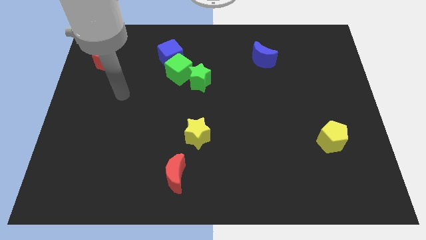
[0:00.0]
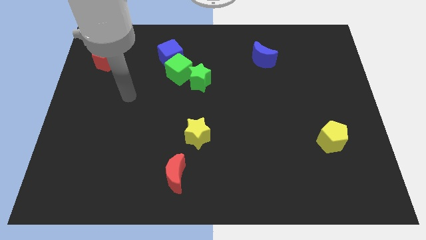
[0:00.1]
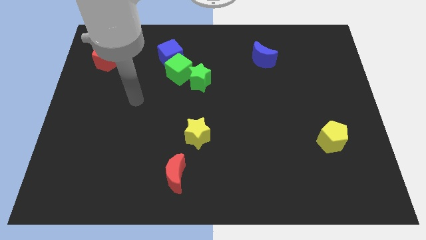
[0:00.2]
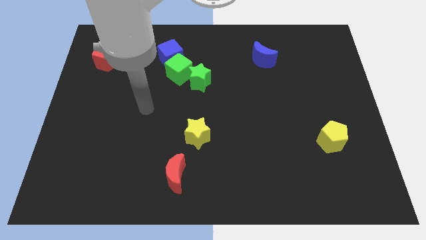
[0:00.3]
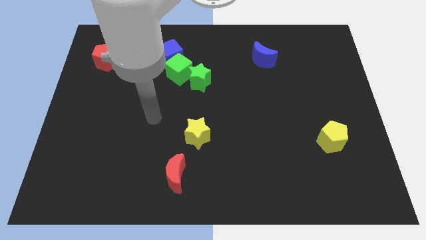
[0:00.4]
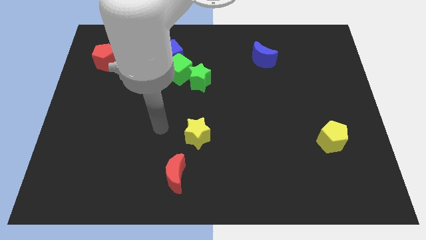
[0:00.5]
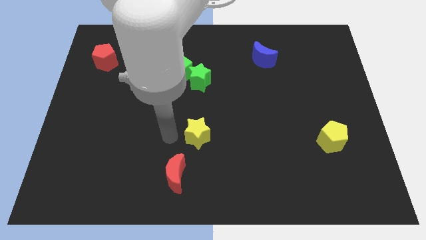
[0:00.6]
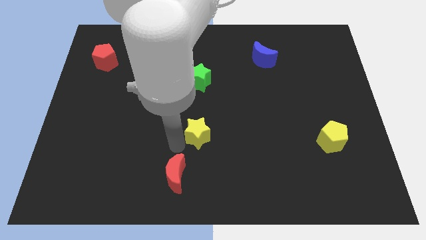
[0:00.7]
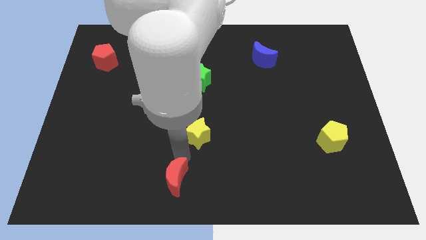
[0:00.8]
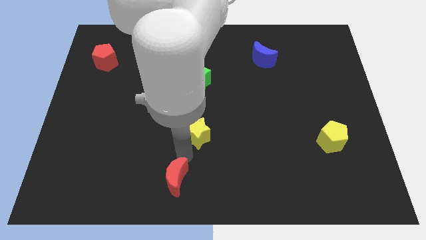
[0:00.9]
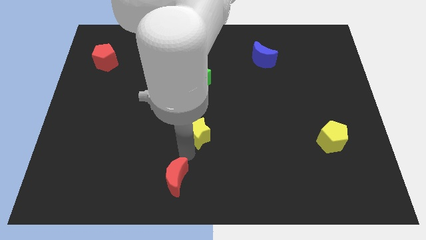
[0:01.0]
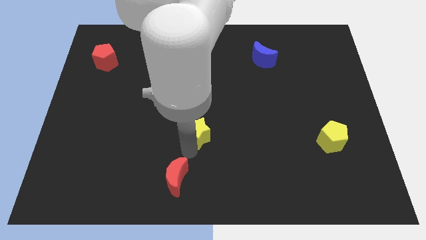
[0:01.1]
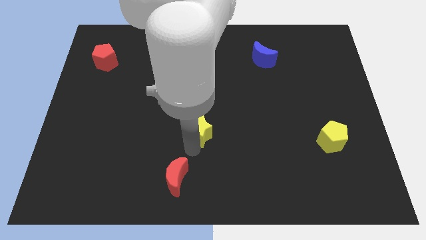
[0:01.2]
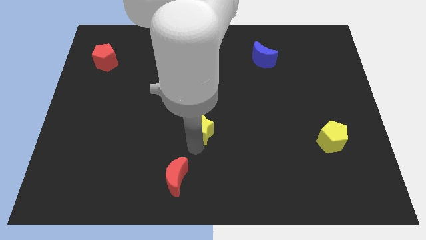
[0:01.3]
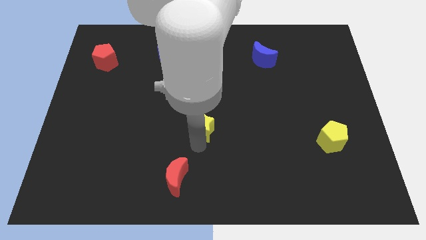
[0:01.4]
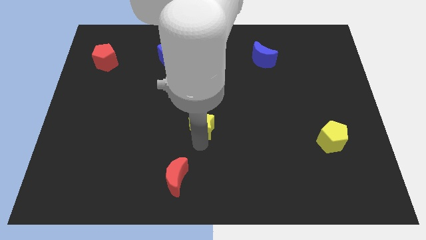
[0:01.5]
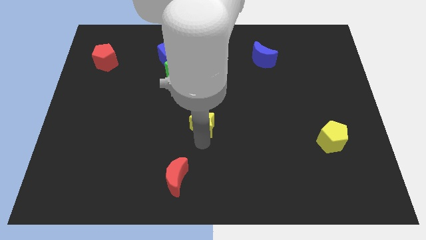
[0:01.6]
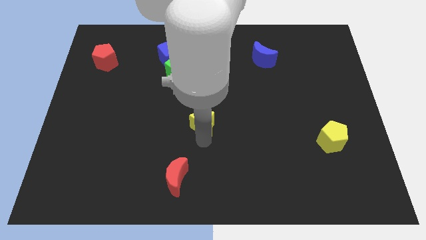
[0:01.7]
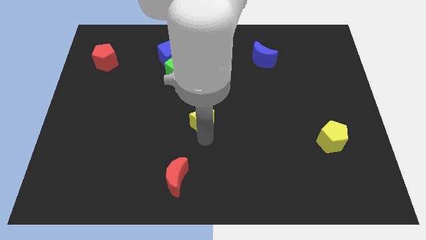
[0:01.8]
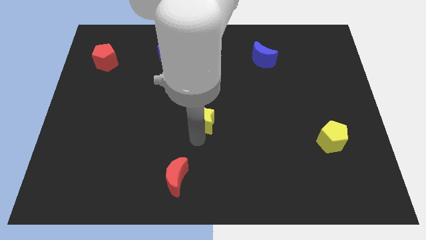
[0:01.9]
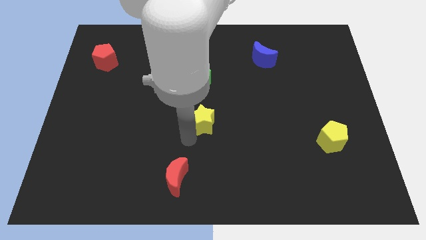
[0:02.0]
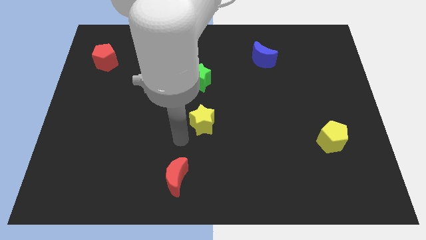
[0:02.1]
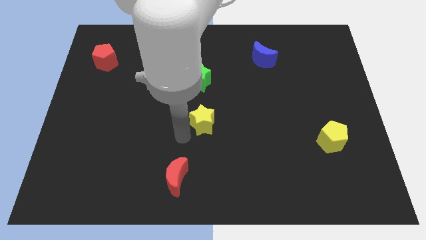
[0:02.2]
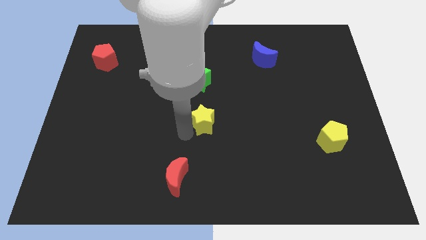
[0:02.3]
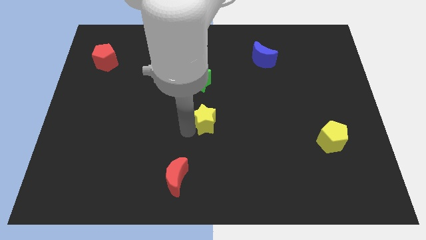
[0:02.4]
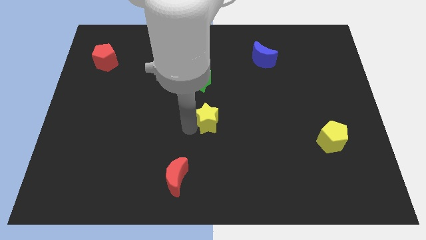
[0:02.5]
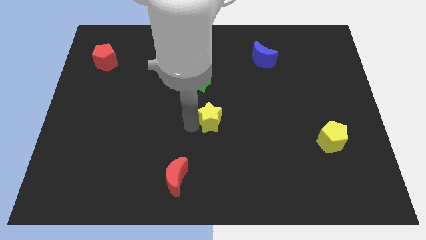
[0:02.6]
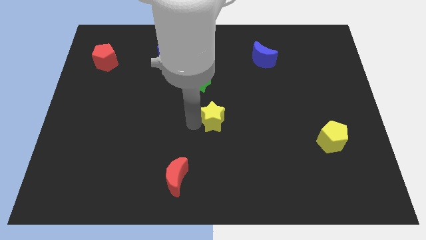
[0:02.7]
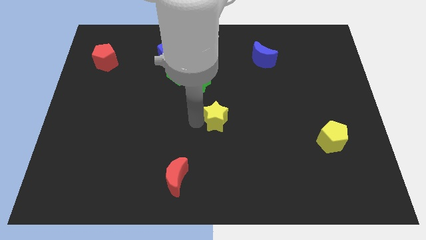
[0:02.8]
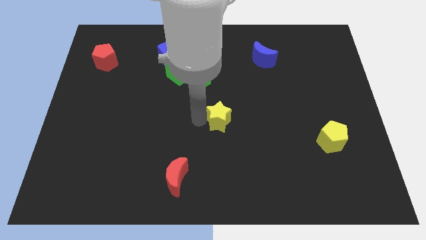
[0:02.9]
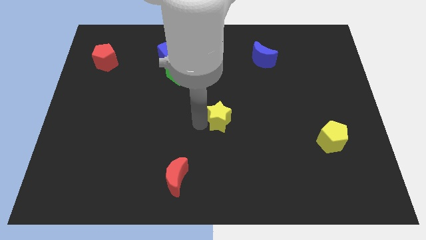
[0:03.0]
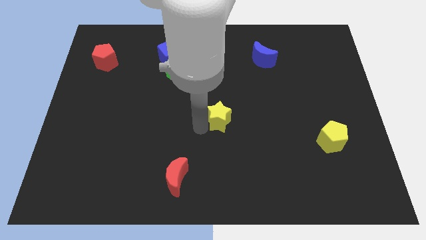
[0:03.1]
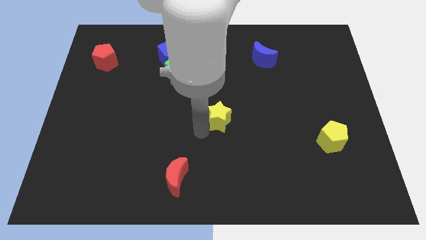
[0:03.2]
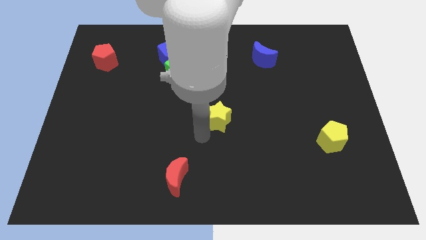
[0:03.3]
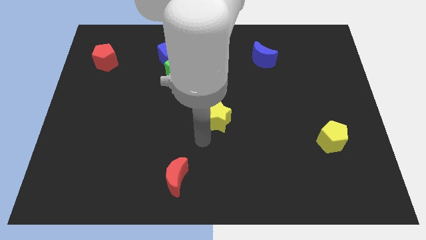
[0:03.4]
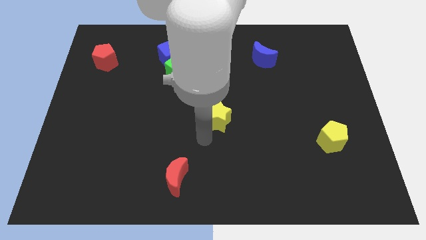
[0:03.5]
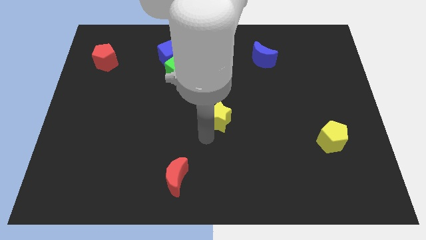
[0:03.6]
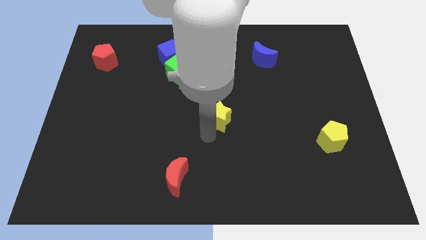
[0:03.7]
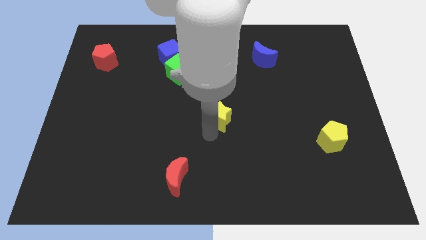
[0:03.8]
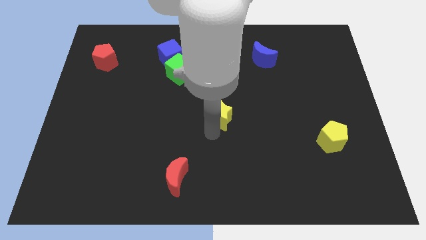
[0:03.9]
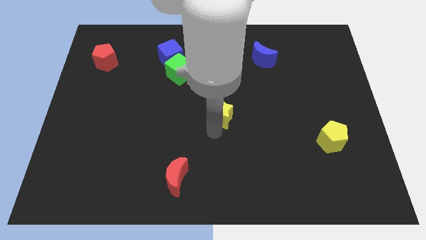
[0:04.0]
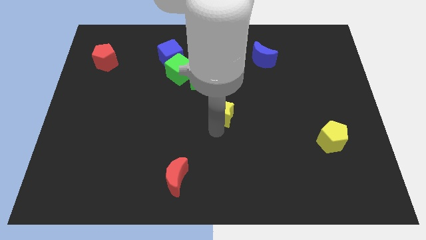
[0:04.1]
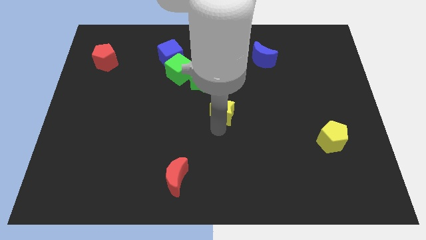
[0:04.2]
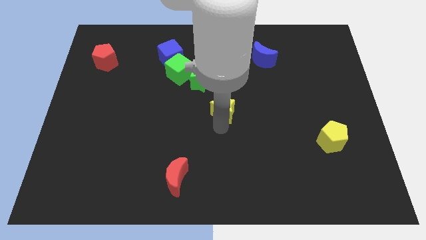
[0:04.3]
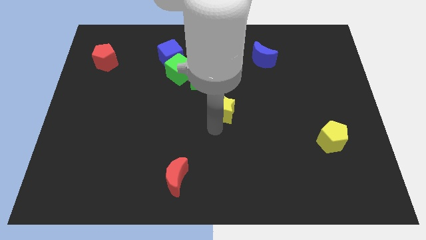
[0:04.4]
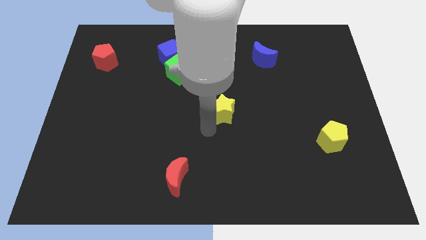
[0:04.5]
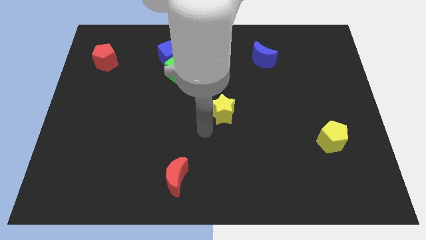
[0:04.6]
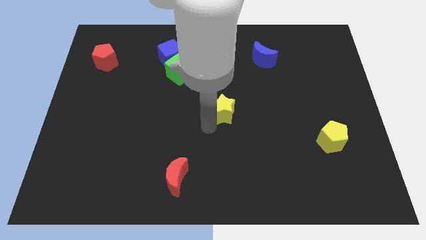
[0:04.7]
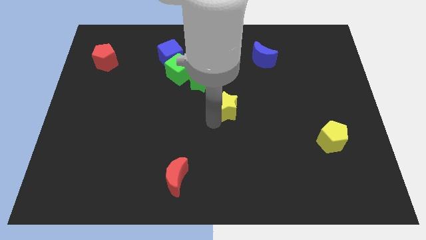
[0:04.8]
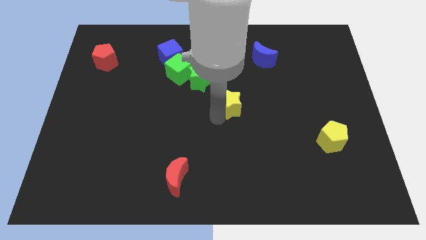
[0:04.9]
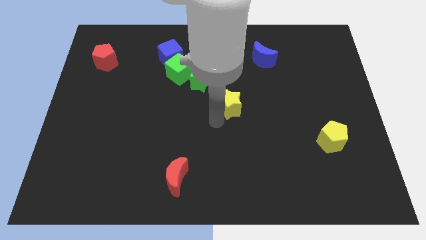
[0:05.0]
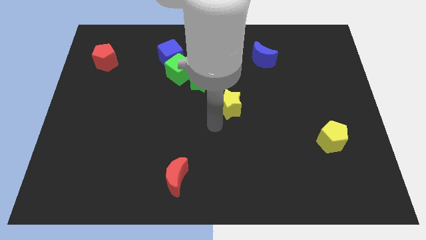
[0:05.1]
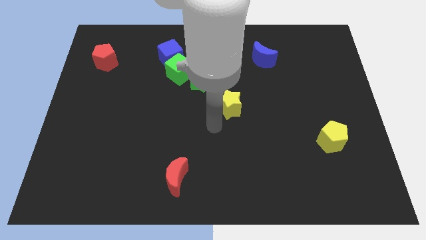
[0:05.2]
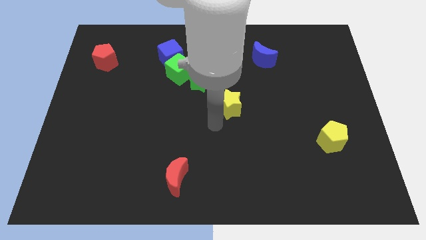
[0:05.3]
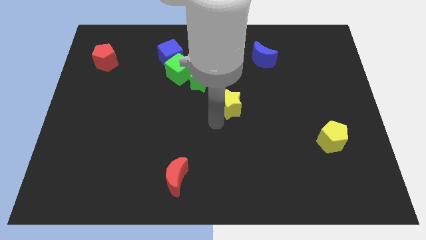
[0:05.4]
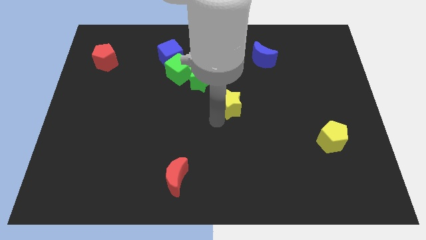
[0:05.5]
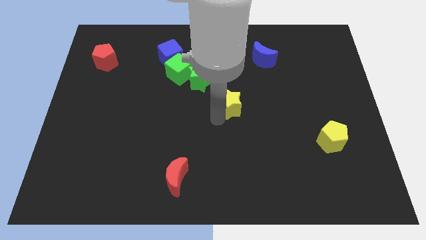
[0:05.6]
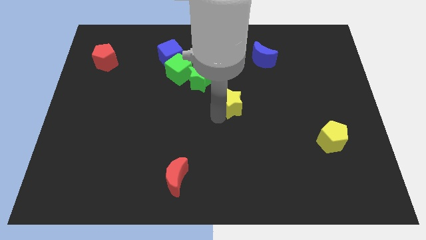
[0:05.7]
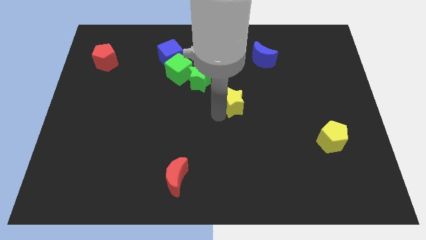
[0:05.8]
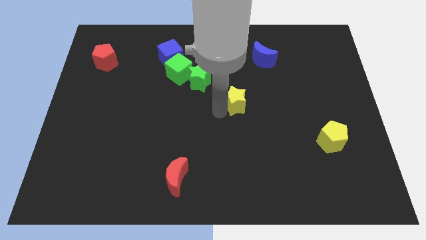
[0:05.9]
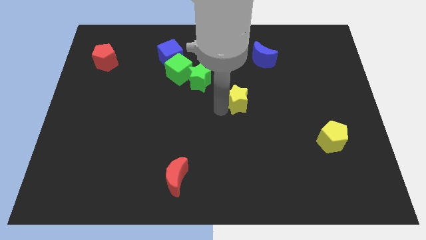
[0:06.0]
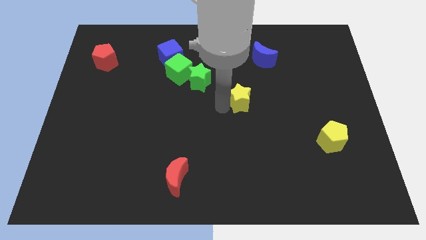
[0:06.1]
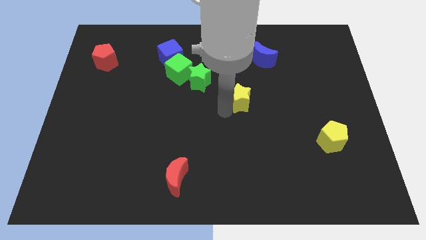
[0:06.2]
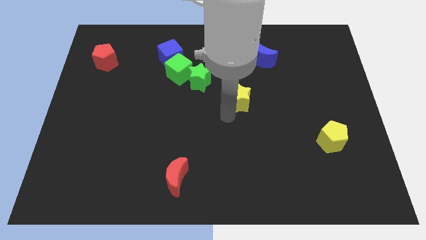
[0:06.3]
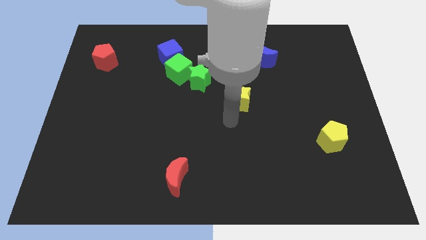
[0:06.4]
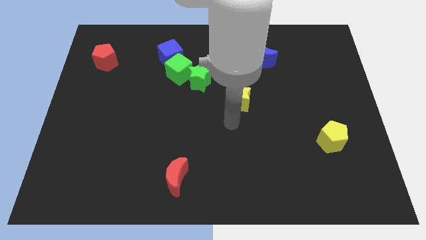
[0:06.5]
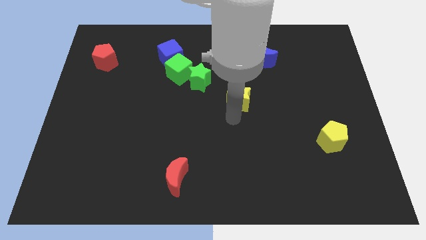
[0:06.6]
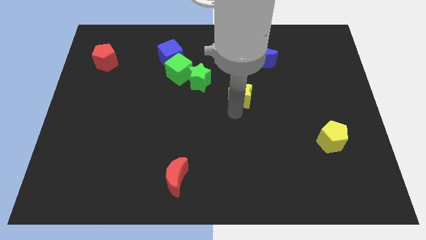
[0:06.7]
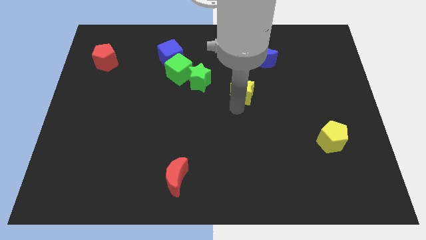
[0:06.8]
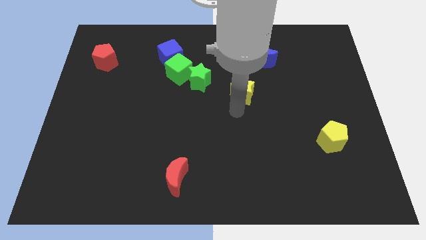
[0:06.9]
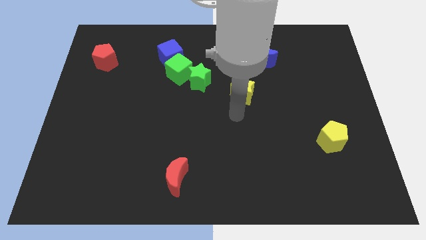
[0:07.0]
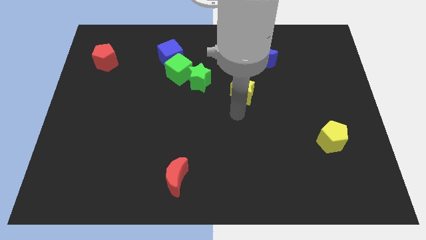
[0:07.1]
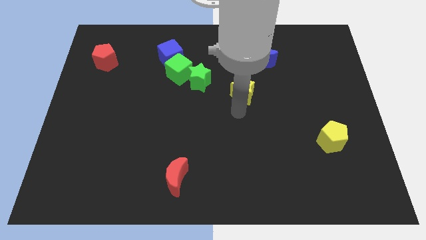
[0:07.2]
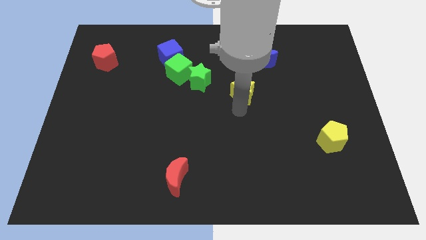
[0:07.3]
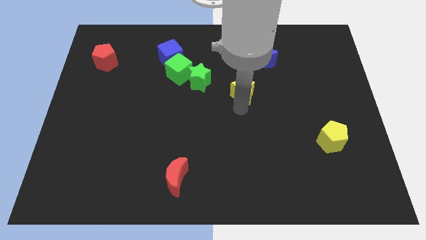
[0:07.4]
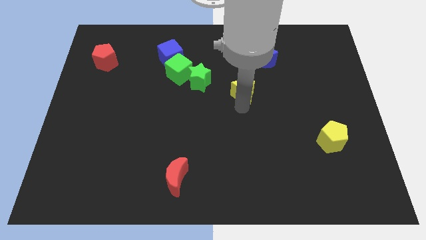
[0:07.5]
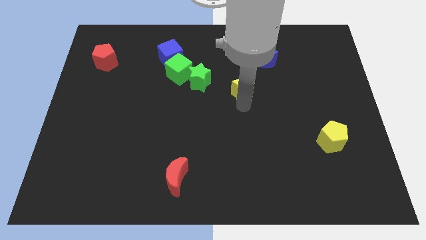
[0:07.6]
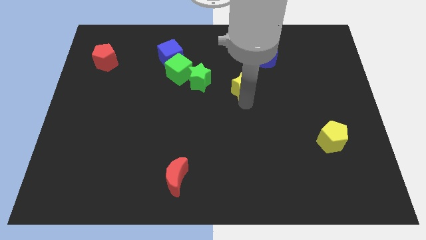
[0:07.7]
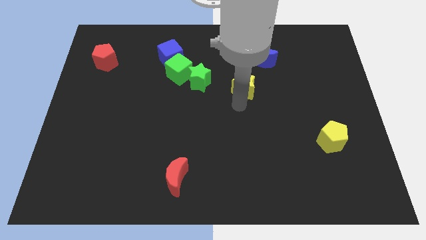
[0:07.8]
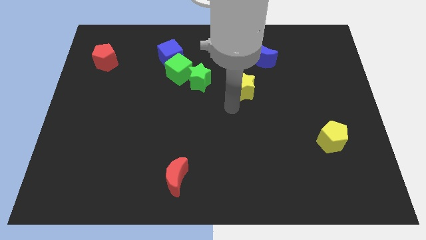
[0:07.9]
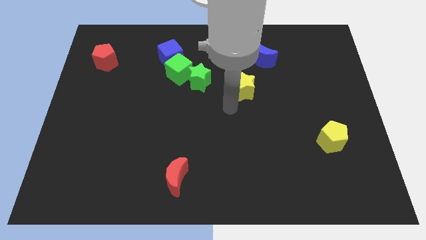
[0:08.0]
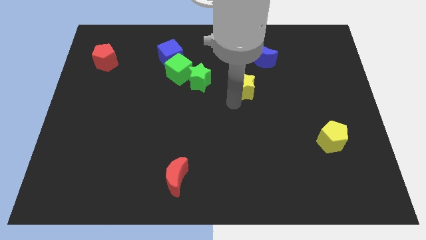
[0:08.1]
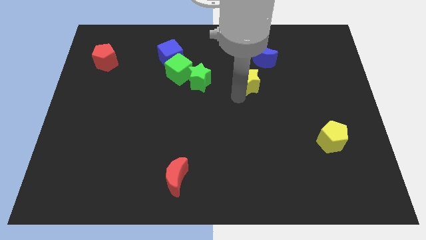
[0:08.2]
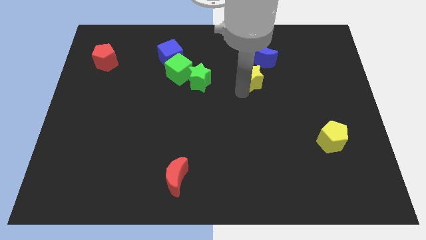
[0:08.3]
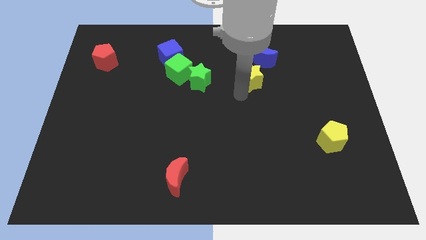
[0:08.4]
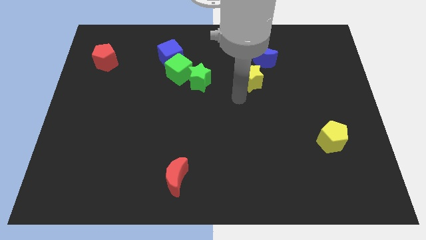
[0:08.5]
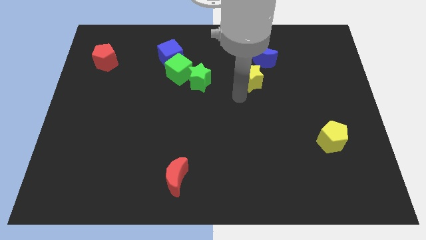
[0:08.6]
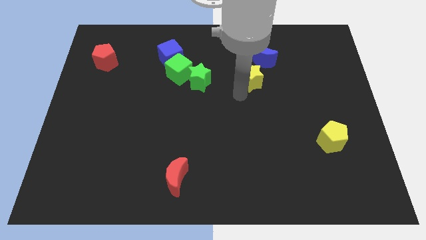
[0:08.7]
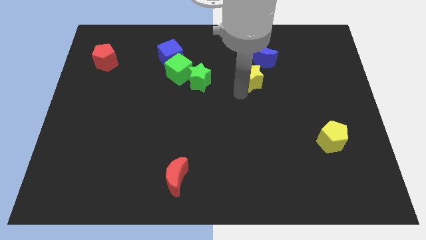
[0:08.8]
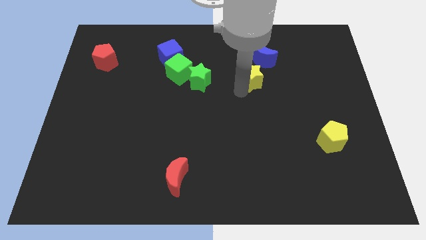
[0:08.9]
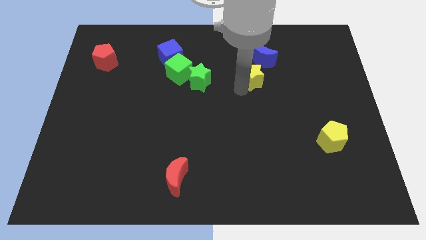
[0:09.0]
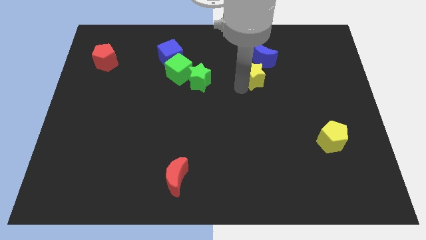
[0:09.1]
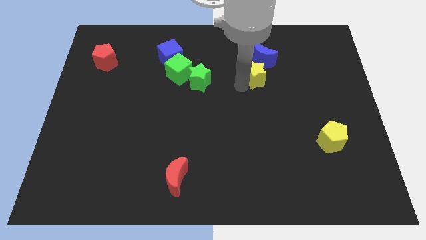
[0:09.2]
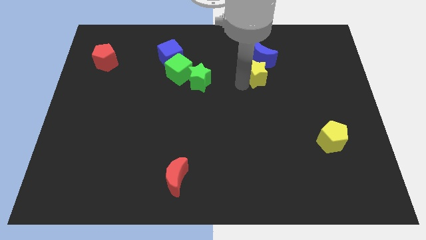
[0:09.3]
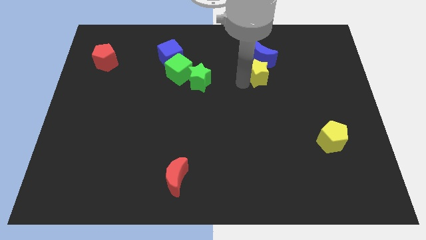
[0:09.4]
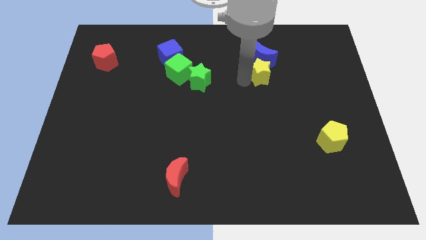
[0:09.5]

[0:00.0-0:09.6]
move the yellow star next to the blue moon
